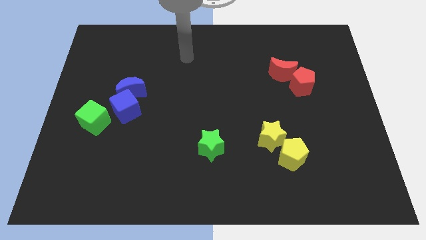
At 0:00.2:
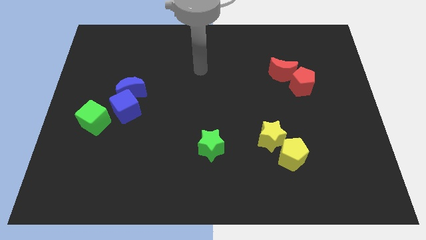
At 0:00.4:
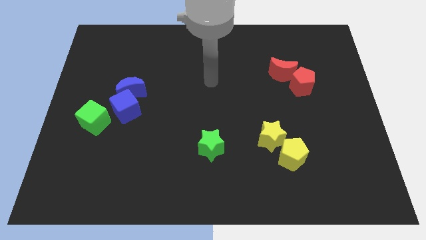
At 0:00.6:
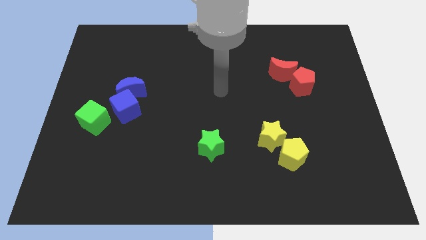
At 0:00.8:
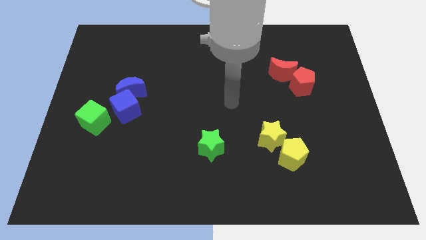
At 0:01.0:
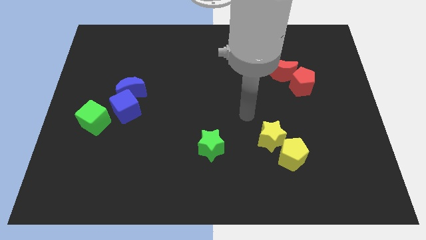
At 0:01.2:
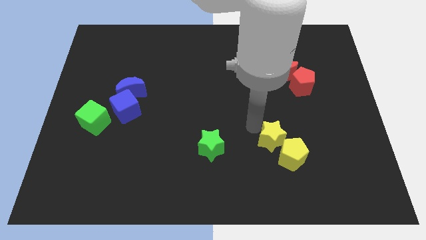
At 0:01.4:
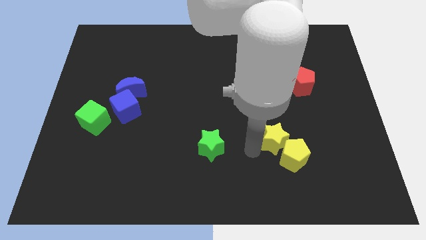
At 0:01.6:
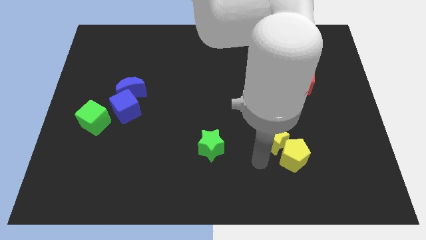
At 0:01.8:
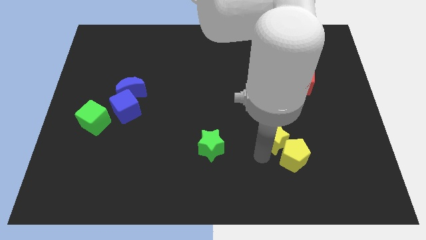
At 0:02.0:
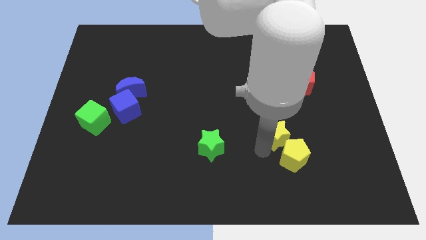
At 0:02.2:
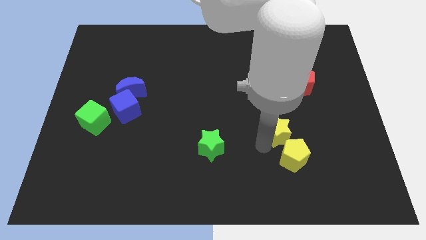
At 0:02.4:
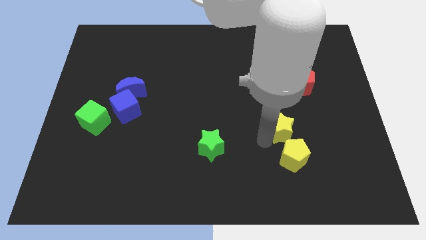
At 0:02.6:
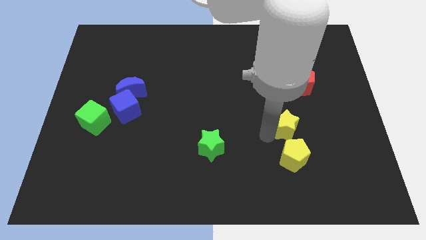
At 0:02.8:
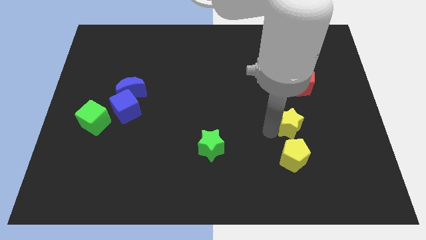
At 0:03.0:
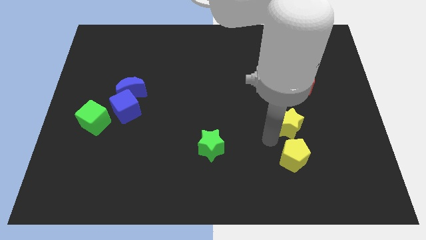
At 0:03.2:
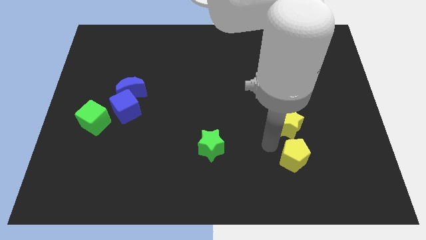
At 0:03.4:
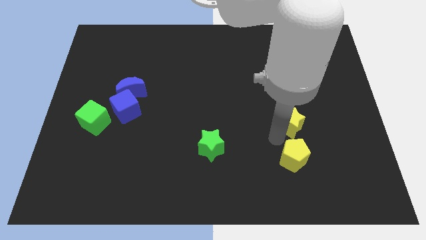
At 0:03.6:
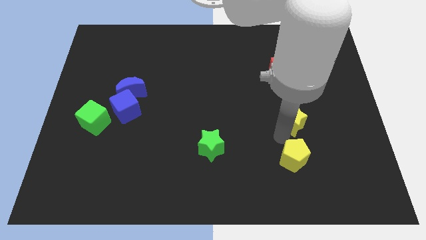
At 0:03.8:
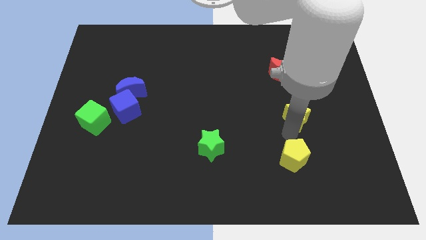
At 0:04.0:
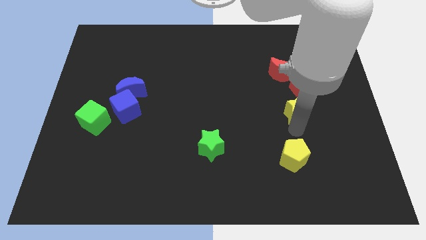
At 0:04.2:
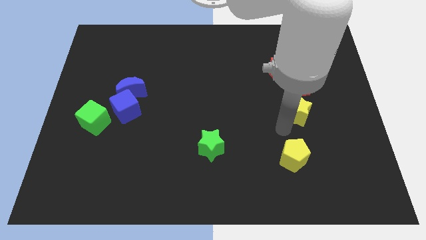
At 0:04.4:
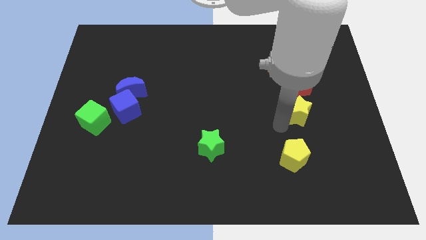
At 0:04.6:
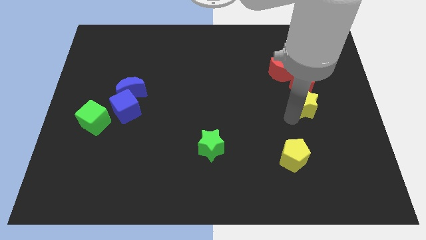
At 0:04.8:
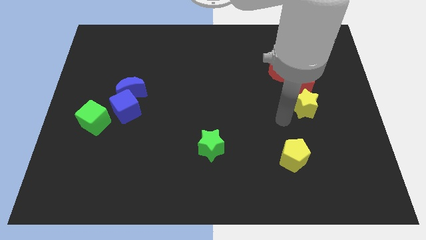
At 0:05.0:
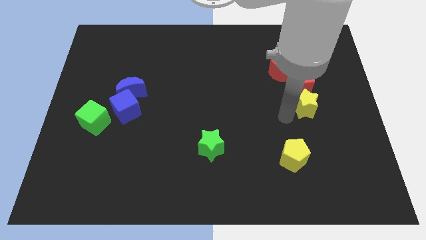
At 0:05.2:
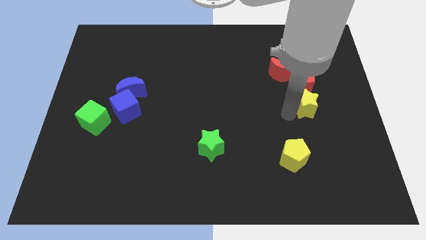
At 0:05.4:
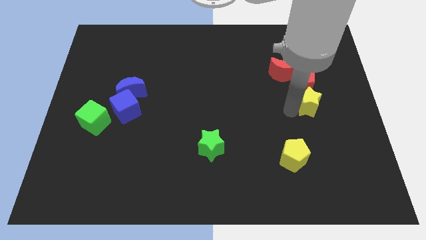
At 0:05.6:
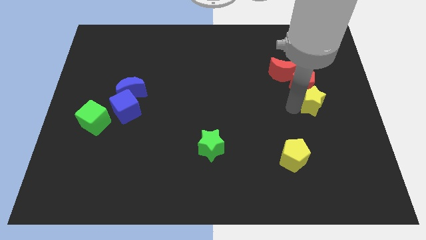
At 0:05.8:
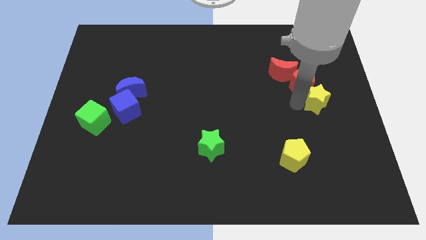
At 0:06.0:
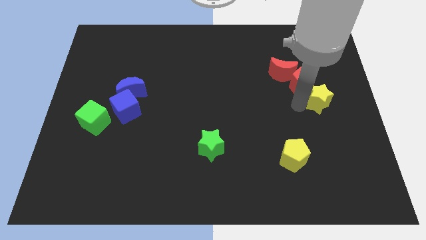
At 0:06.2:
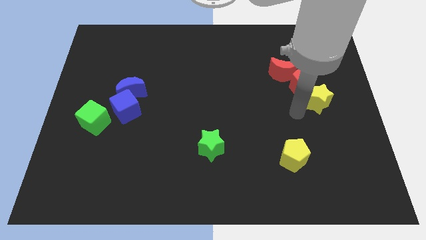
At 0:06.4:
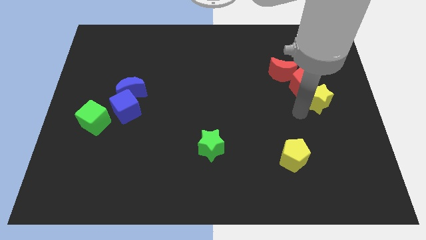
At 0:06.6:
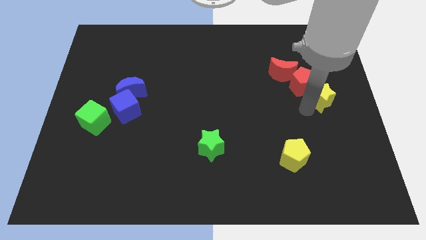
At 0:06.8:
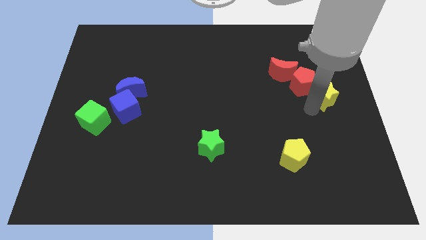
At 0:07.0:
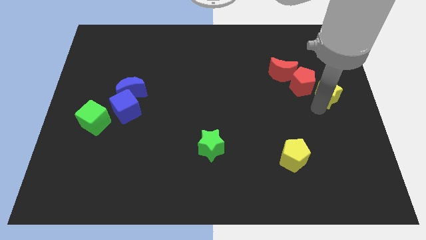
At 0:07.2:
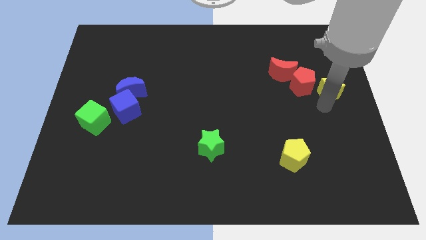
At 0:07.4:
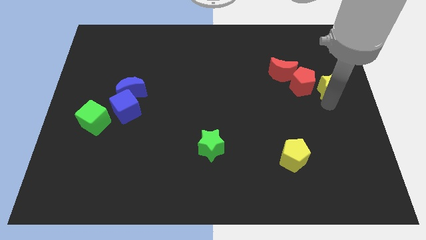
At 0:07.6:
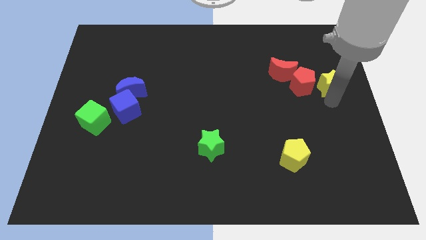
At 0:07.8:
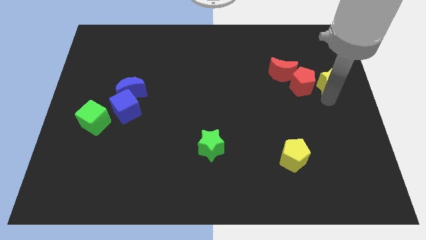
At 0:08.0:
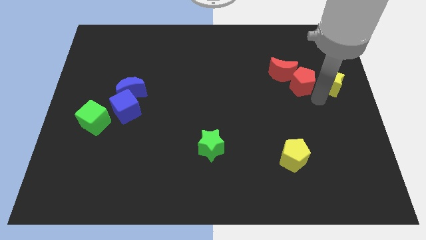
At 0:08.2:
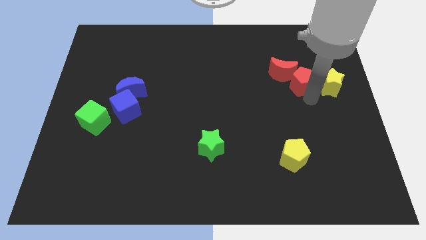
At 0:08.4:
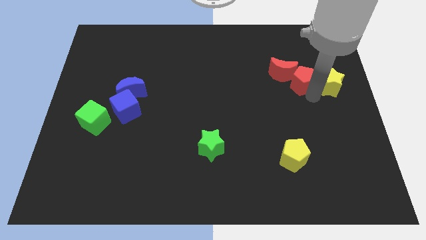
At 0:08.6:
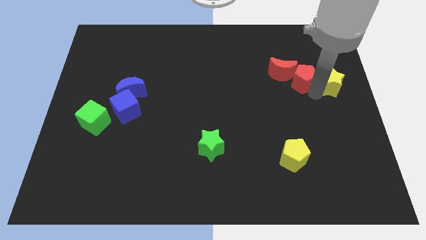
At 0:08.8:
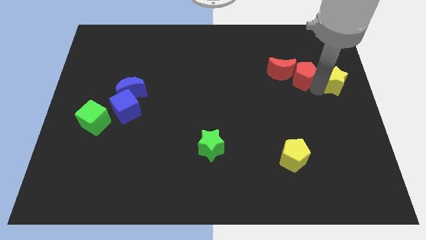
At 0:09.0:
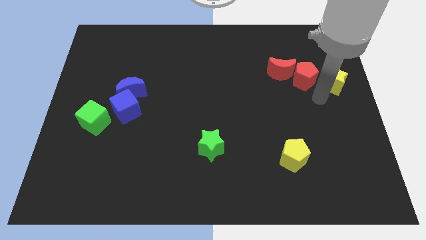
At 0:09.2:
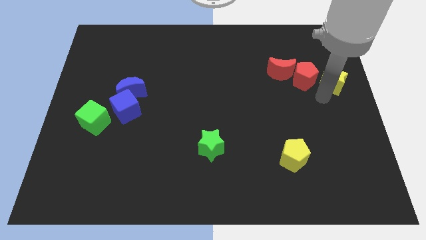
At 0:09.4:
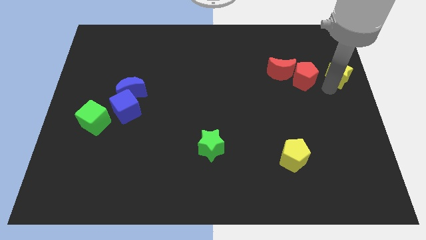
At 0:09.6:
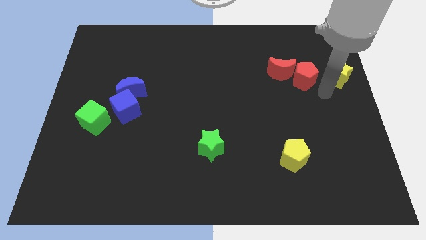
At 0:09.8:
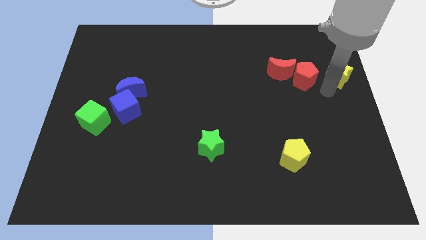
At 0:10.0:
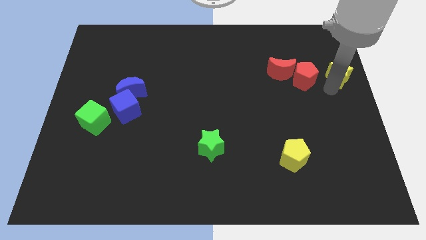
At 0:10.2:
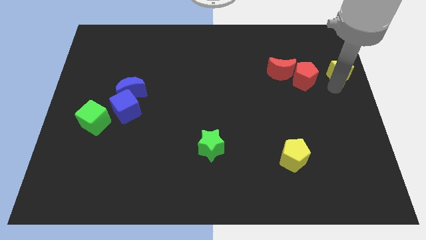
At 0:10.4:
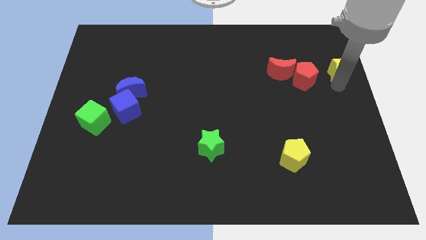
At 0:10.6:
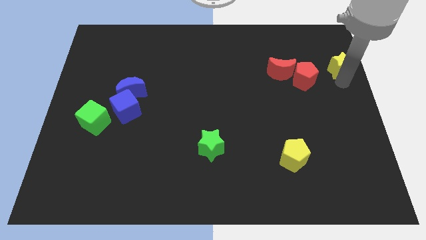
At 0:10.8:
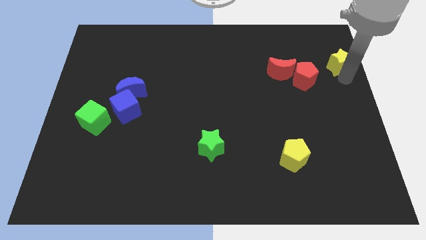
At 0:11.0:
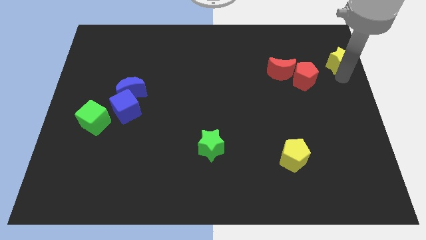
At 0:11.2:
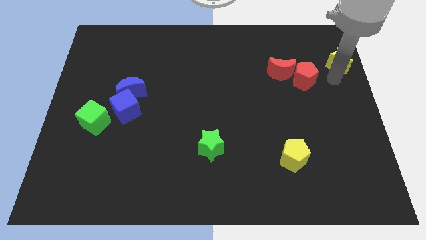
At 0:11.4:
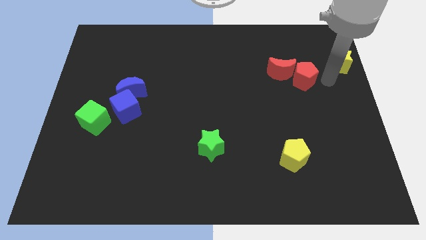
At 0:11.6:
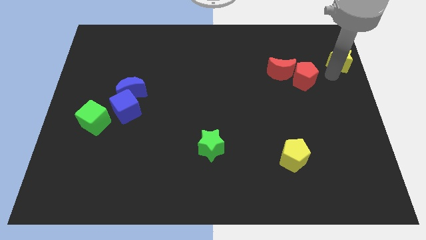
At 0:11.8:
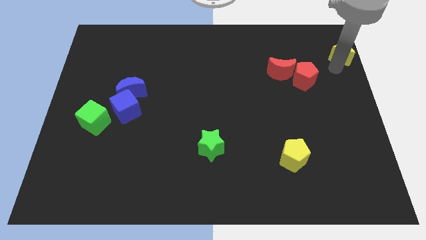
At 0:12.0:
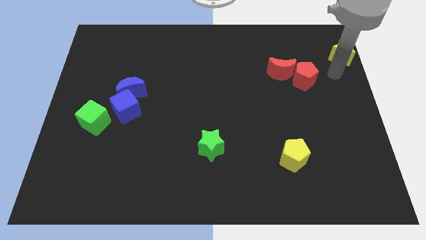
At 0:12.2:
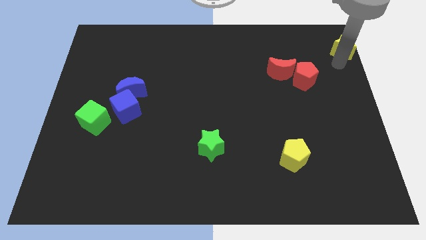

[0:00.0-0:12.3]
put the yellow star to the top right corner

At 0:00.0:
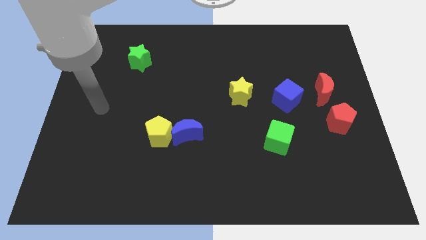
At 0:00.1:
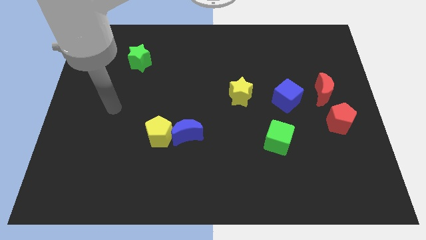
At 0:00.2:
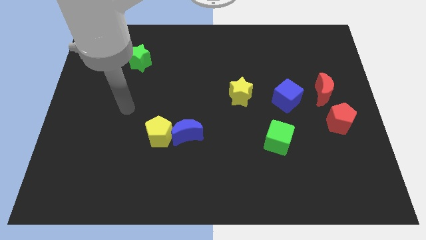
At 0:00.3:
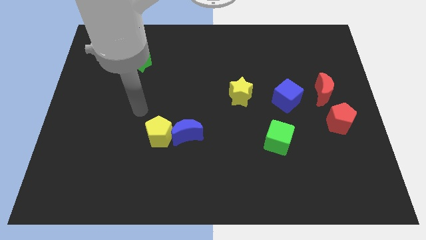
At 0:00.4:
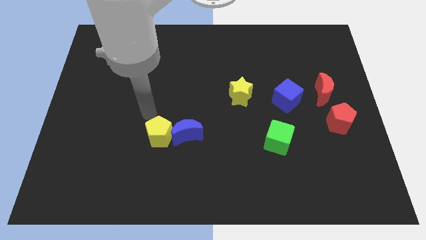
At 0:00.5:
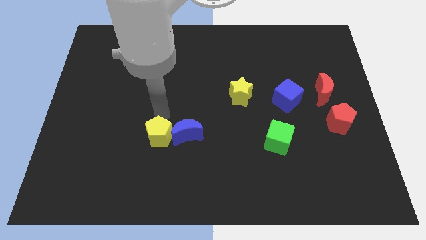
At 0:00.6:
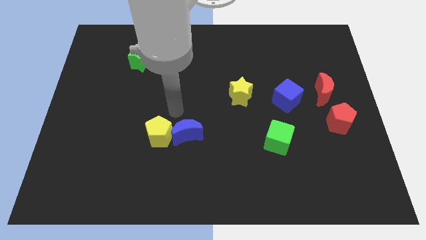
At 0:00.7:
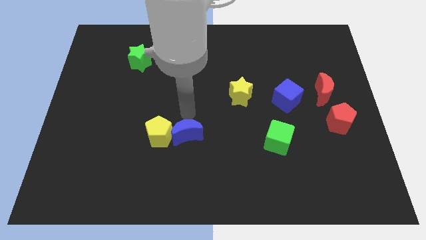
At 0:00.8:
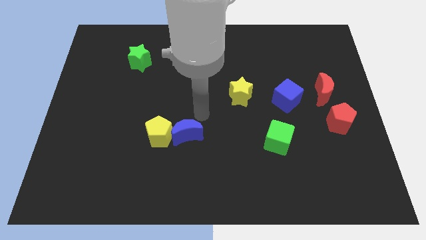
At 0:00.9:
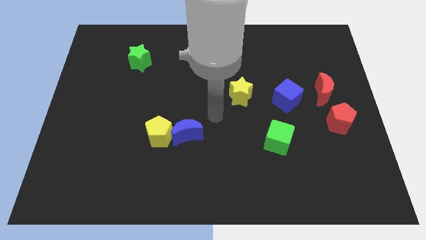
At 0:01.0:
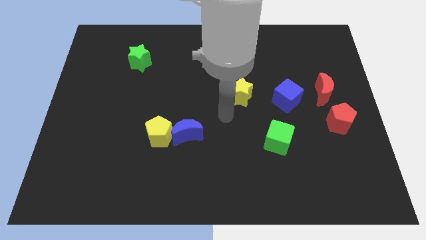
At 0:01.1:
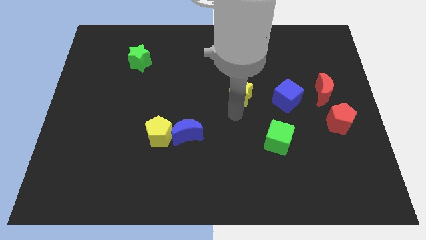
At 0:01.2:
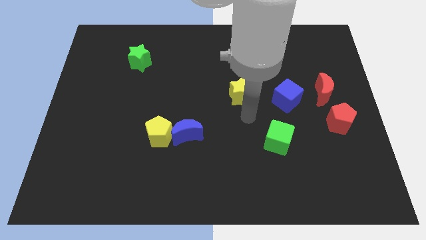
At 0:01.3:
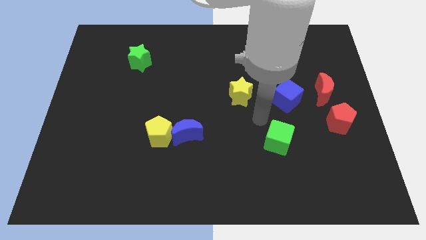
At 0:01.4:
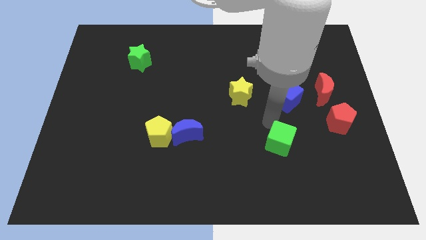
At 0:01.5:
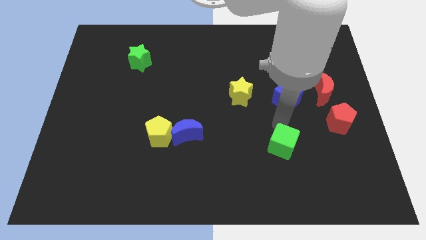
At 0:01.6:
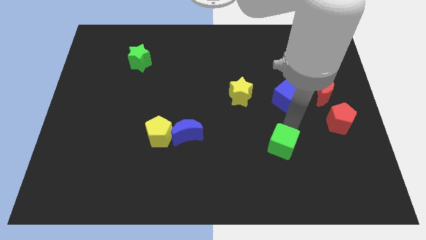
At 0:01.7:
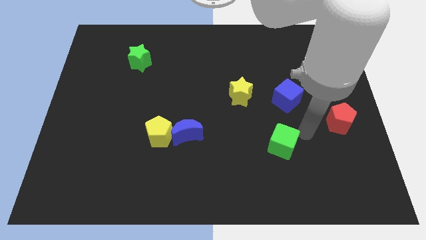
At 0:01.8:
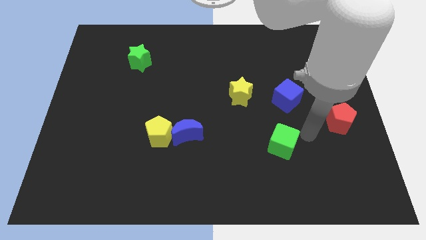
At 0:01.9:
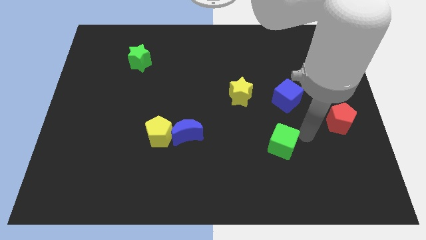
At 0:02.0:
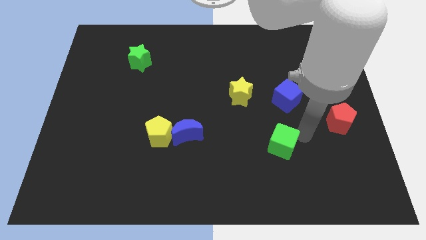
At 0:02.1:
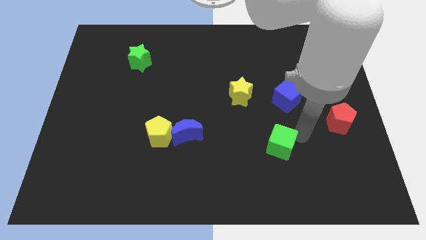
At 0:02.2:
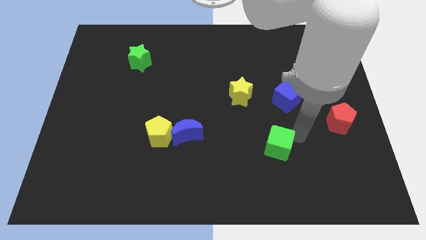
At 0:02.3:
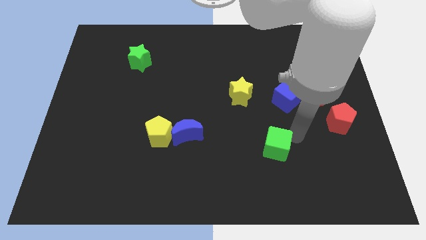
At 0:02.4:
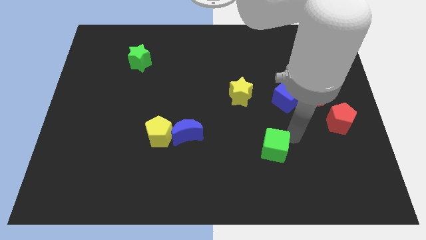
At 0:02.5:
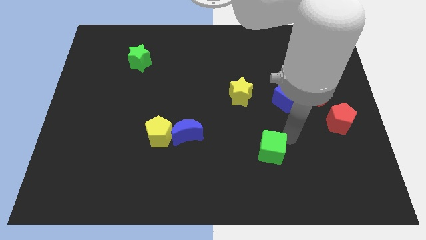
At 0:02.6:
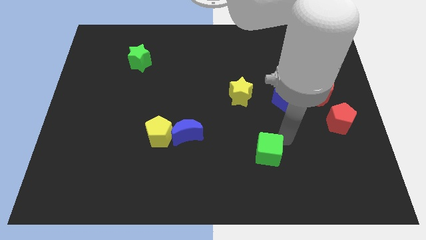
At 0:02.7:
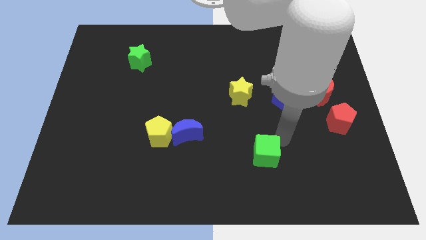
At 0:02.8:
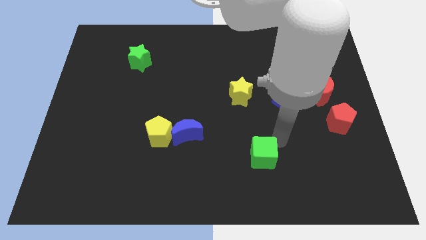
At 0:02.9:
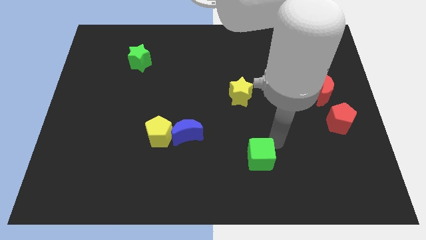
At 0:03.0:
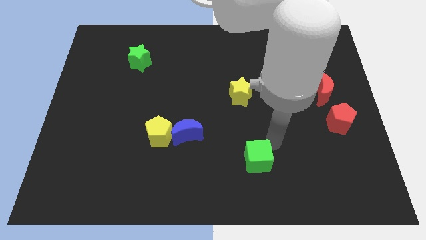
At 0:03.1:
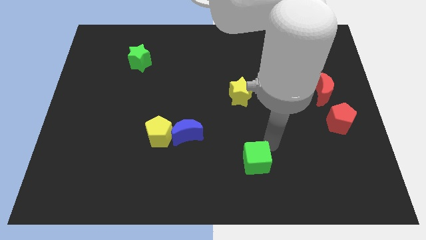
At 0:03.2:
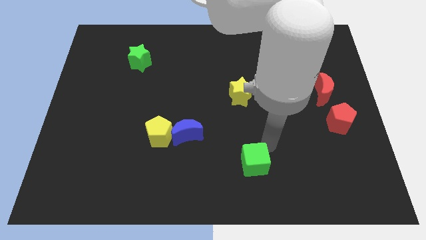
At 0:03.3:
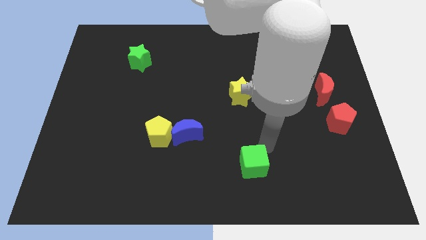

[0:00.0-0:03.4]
slide the green cube to the bottom
